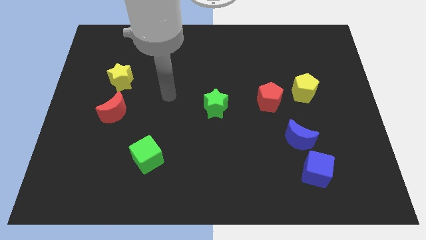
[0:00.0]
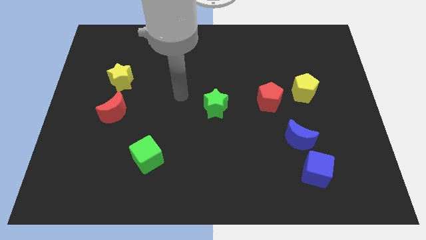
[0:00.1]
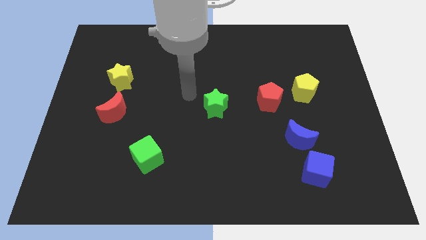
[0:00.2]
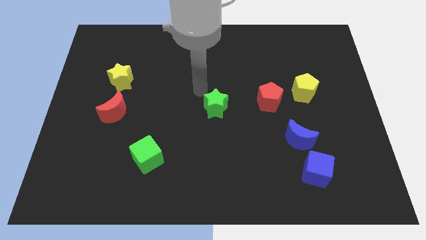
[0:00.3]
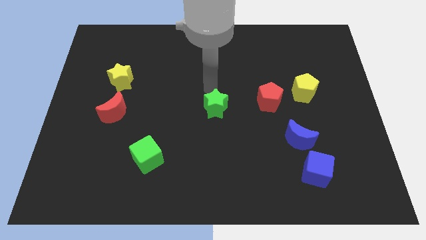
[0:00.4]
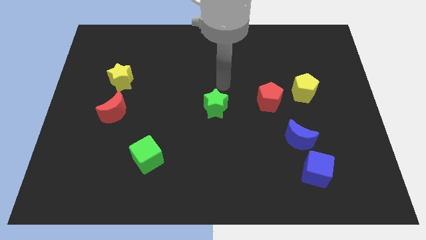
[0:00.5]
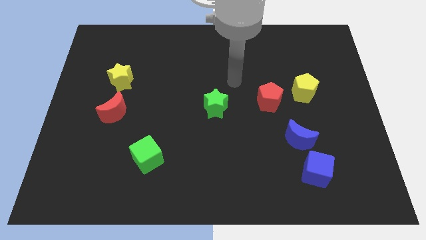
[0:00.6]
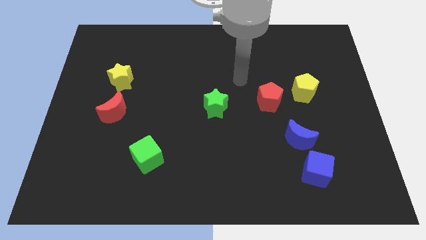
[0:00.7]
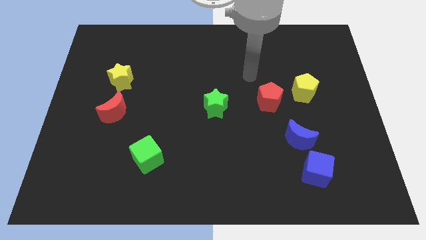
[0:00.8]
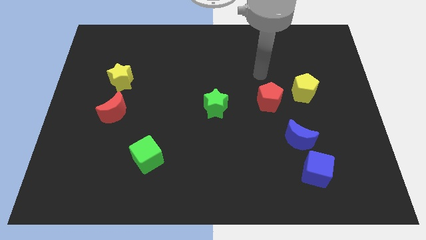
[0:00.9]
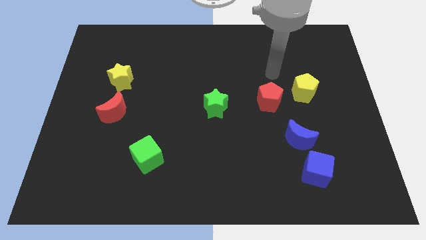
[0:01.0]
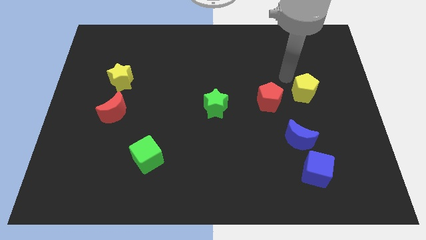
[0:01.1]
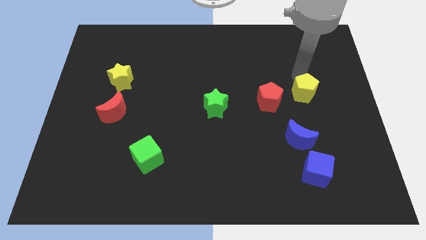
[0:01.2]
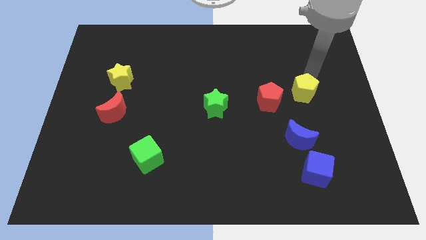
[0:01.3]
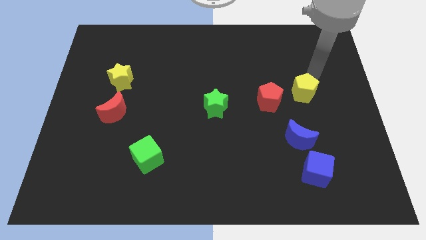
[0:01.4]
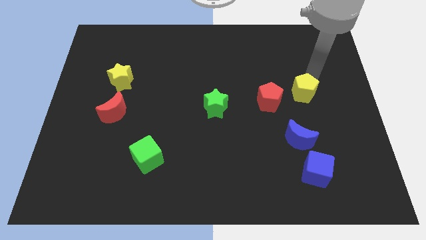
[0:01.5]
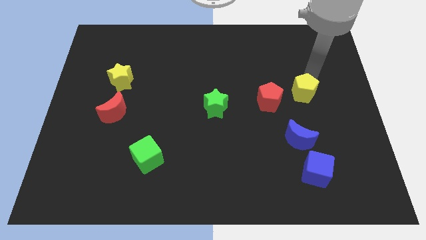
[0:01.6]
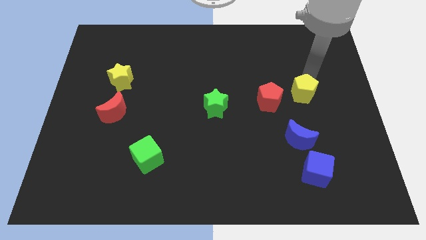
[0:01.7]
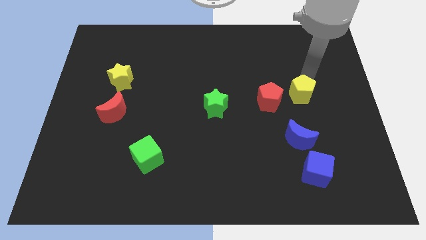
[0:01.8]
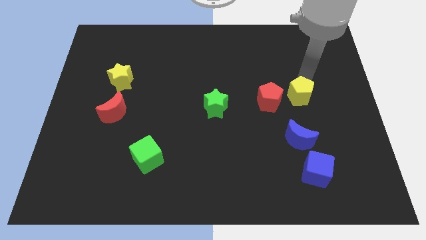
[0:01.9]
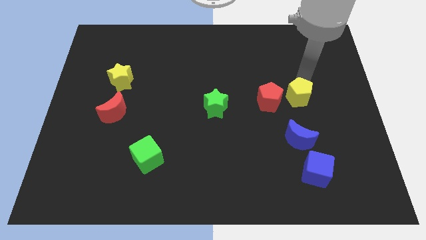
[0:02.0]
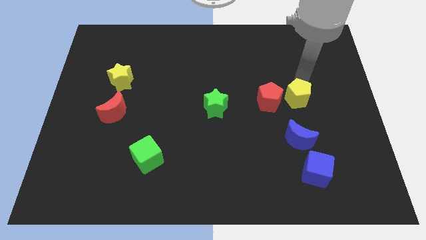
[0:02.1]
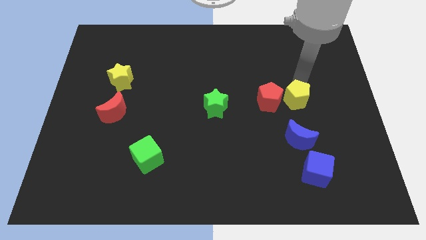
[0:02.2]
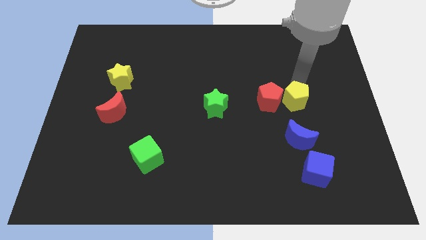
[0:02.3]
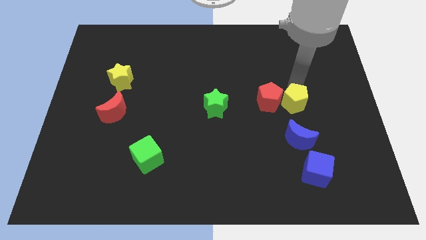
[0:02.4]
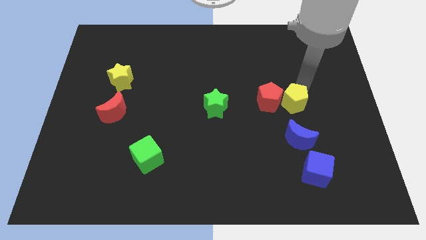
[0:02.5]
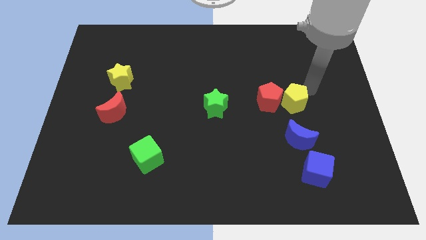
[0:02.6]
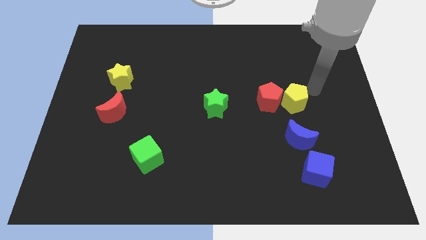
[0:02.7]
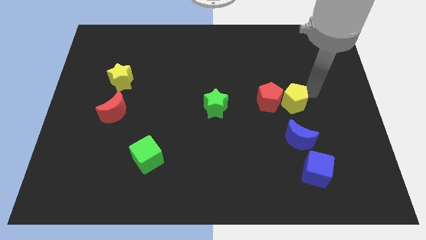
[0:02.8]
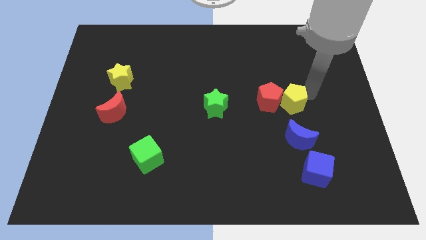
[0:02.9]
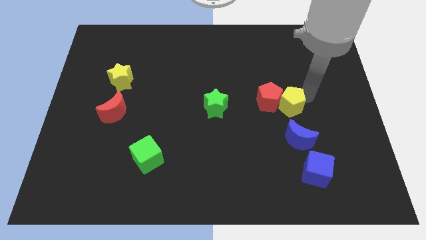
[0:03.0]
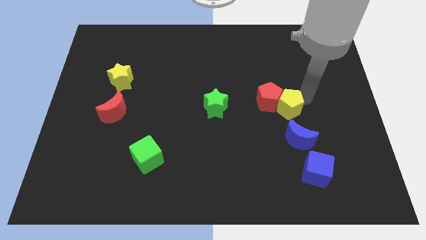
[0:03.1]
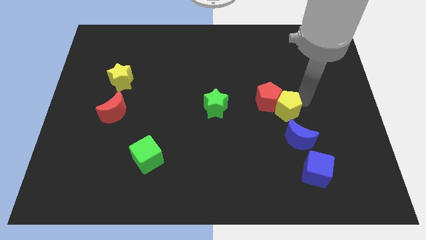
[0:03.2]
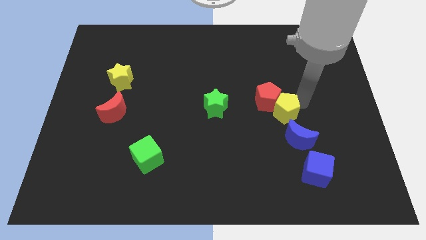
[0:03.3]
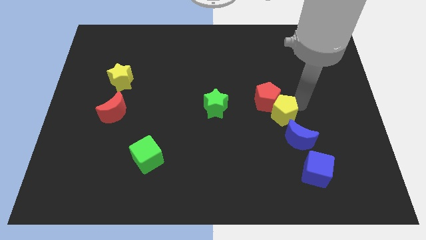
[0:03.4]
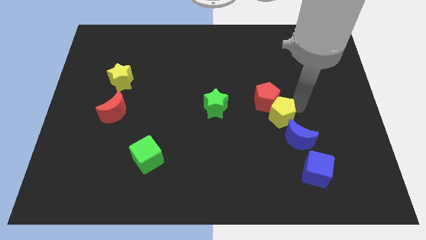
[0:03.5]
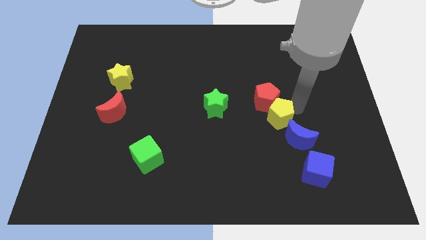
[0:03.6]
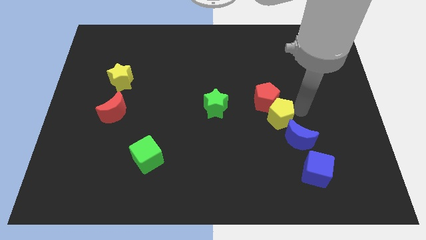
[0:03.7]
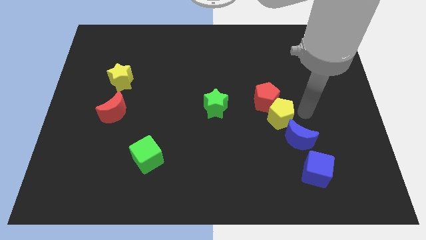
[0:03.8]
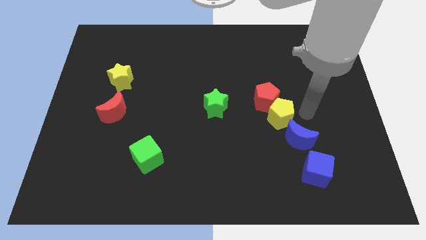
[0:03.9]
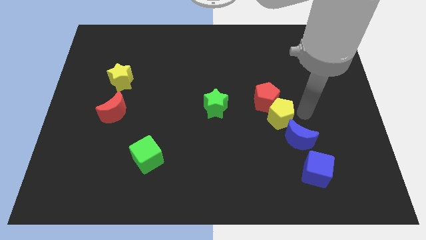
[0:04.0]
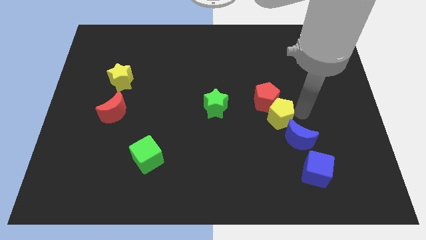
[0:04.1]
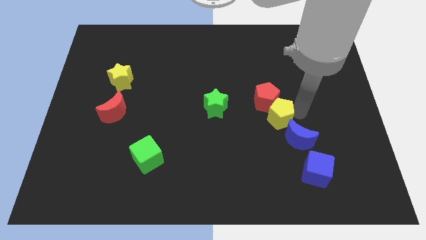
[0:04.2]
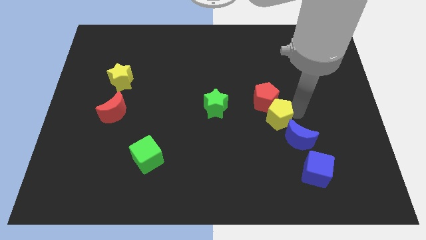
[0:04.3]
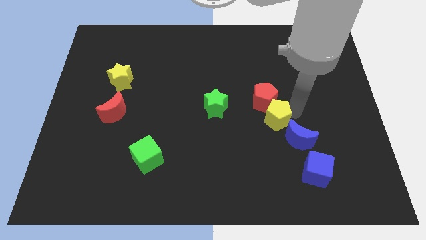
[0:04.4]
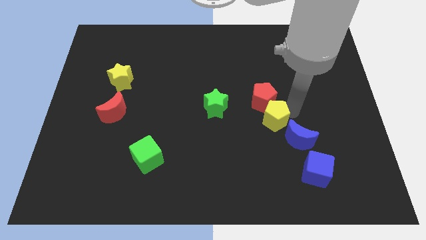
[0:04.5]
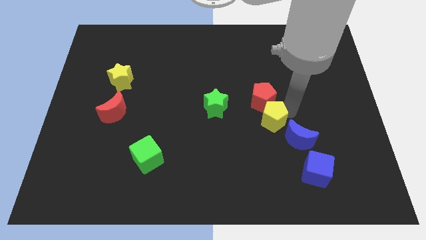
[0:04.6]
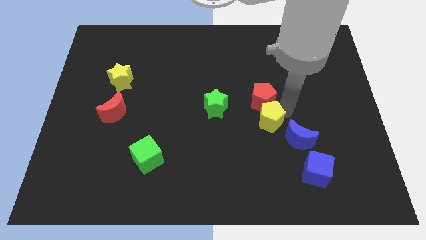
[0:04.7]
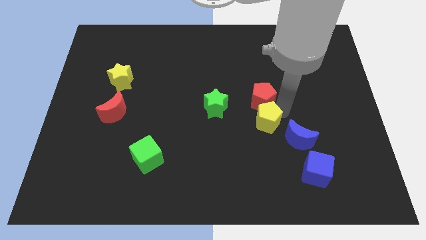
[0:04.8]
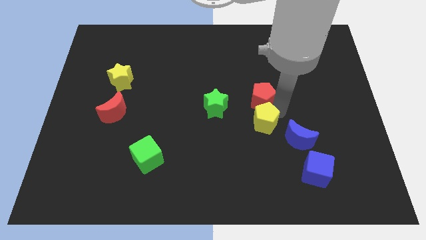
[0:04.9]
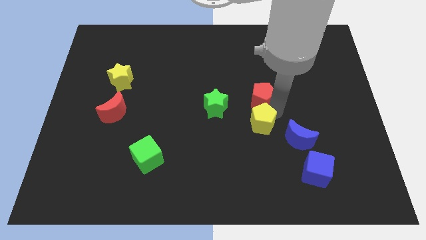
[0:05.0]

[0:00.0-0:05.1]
put the yellow pentagon to the bottom right side of the green star

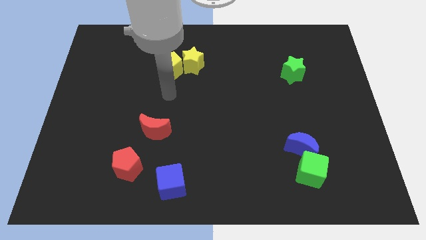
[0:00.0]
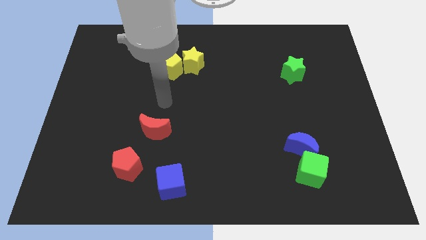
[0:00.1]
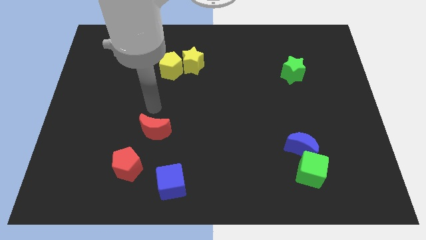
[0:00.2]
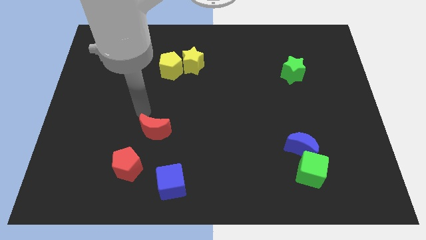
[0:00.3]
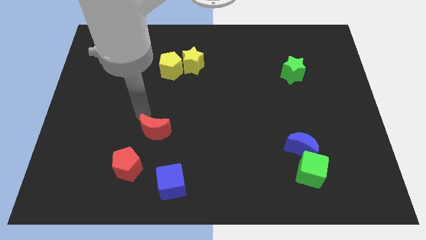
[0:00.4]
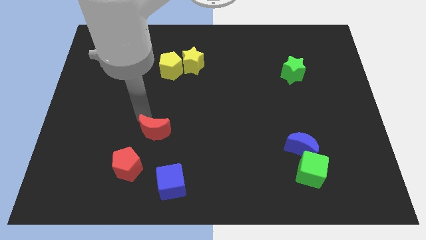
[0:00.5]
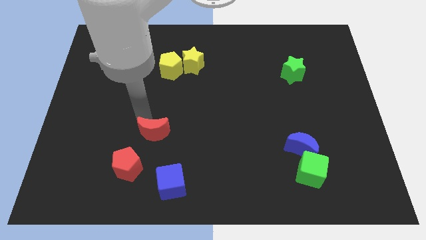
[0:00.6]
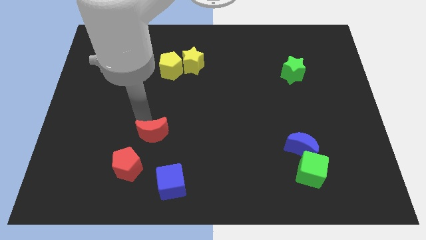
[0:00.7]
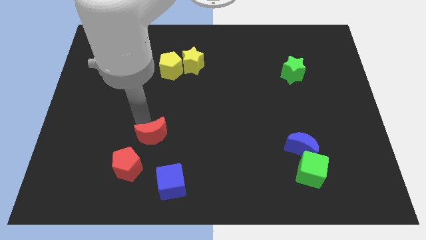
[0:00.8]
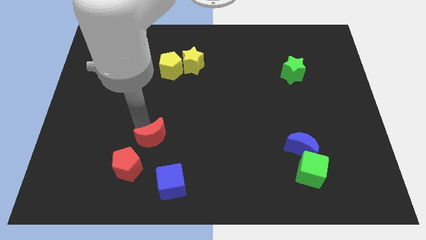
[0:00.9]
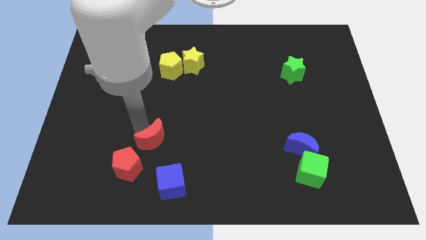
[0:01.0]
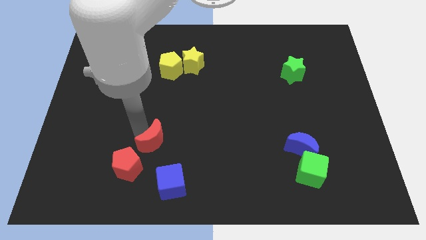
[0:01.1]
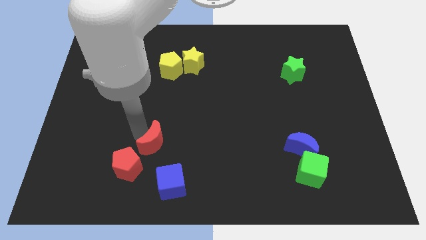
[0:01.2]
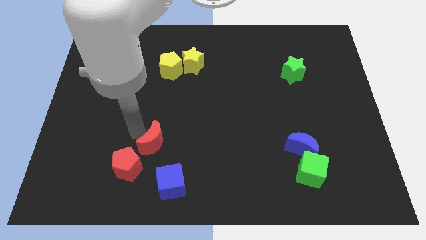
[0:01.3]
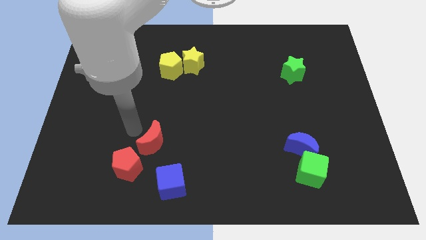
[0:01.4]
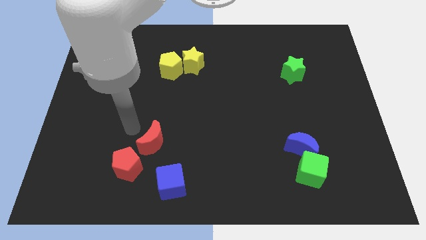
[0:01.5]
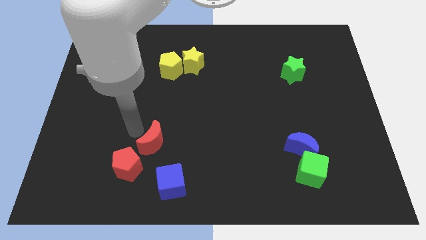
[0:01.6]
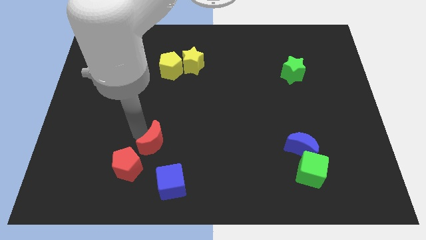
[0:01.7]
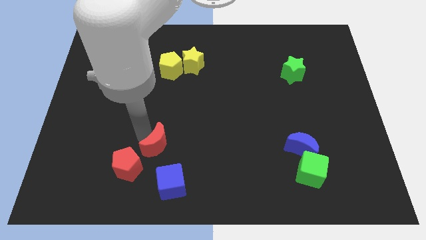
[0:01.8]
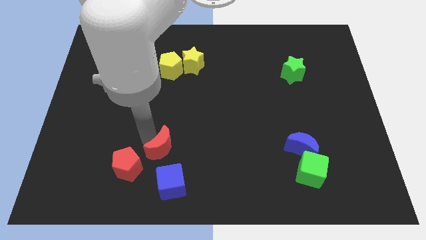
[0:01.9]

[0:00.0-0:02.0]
push the red moon to the right side of the red pentagon
